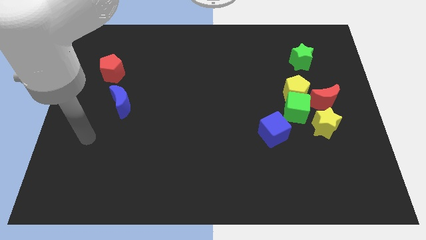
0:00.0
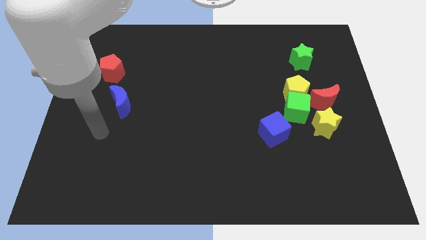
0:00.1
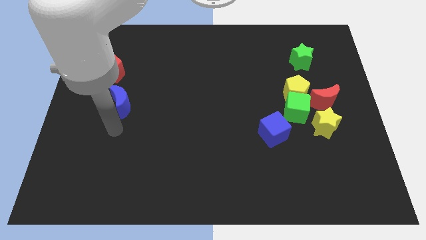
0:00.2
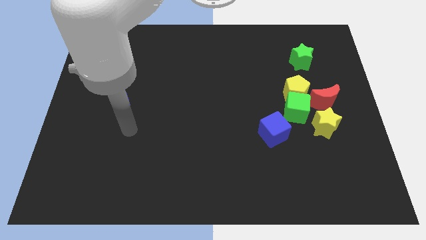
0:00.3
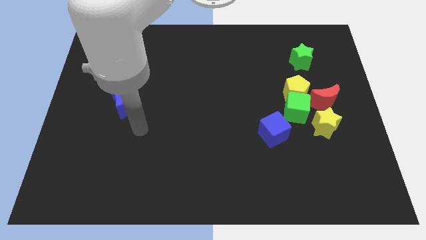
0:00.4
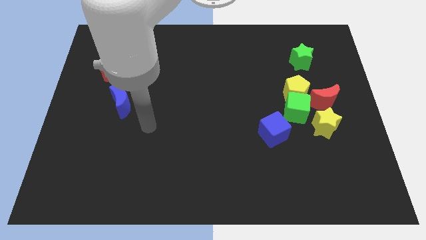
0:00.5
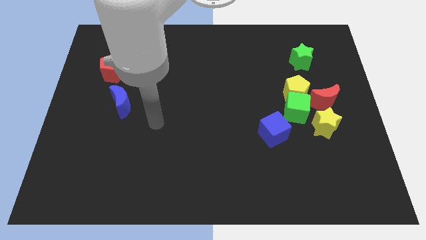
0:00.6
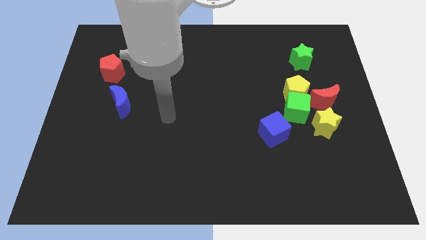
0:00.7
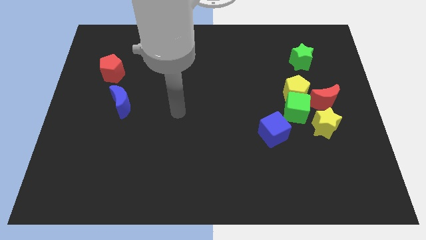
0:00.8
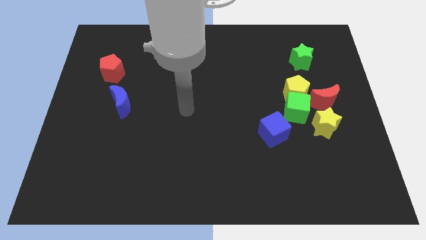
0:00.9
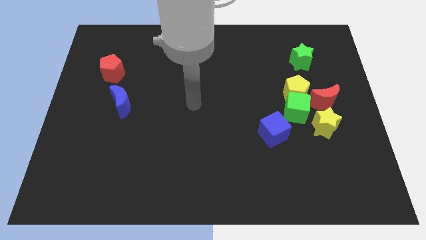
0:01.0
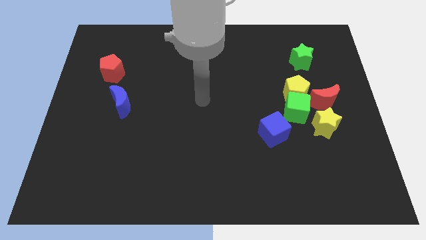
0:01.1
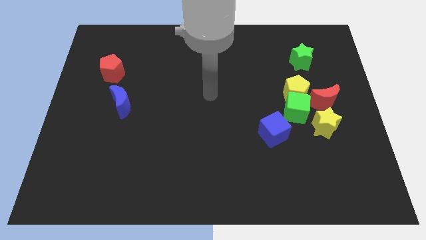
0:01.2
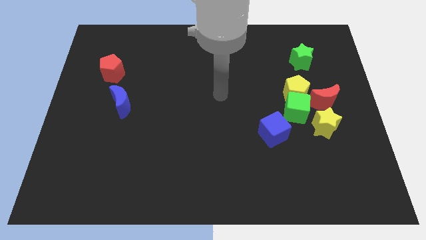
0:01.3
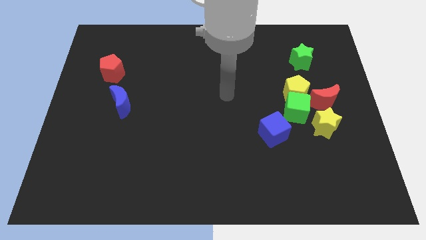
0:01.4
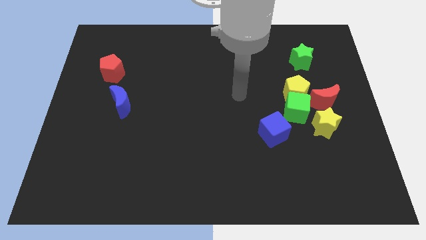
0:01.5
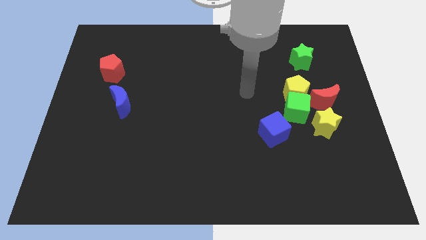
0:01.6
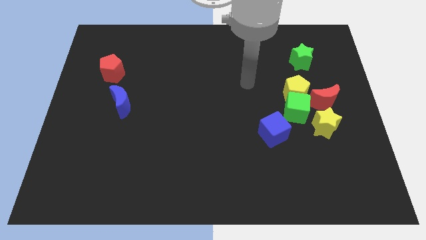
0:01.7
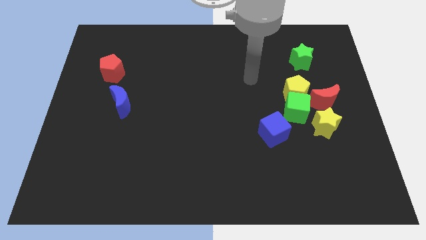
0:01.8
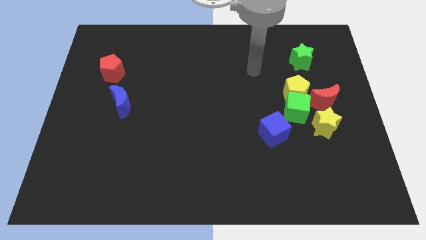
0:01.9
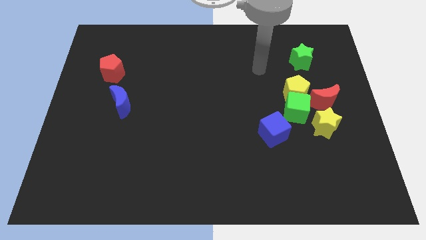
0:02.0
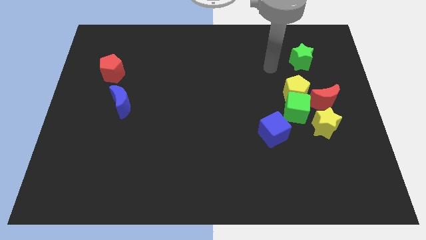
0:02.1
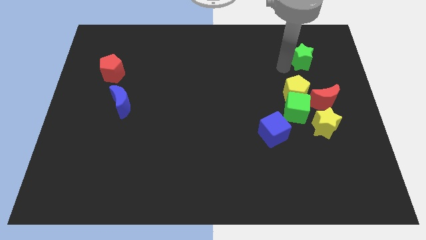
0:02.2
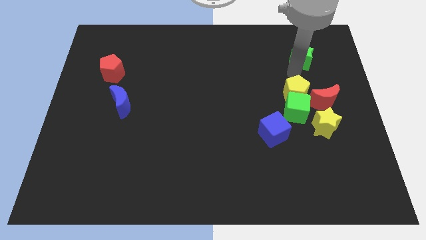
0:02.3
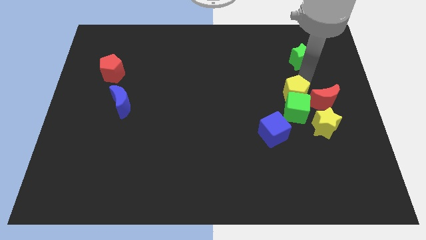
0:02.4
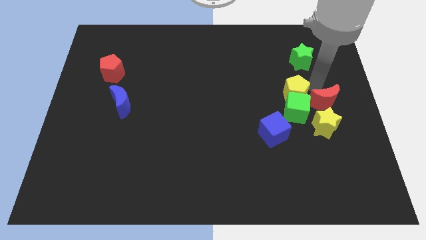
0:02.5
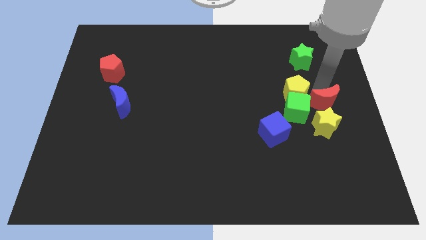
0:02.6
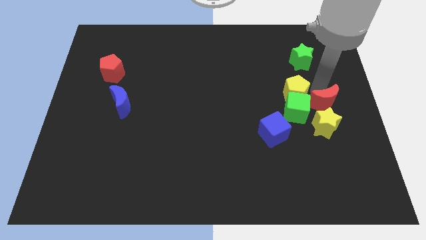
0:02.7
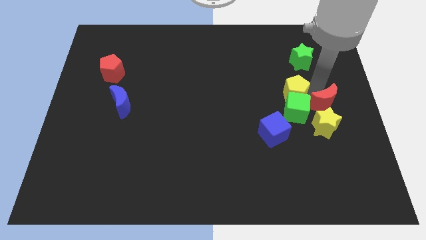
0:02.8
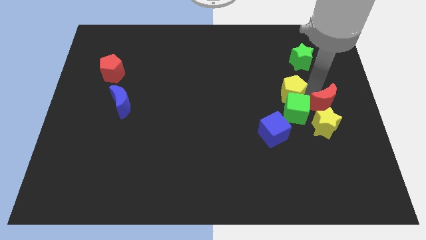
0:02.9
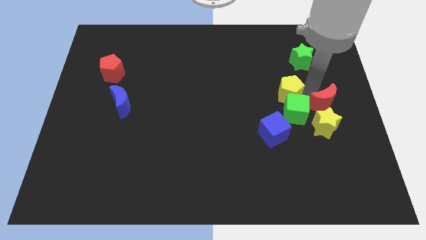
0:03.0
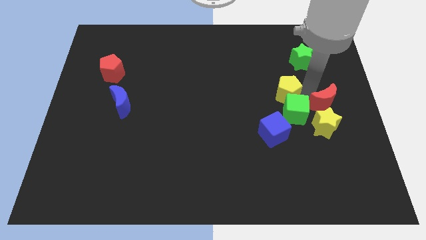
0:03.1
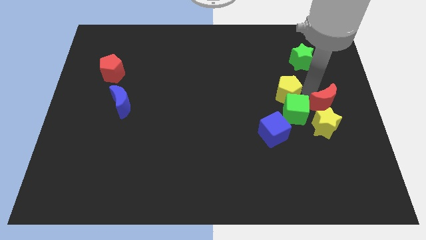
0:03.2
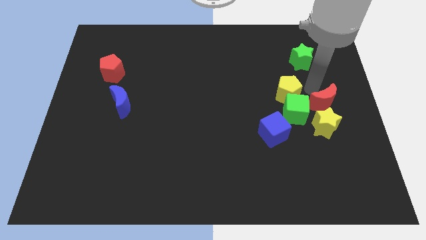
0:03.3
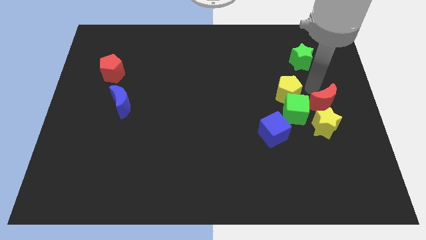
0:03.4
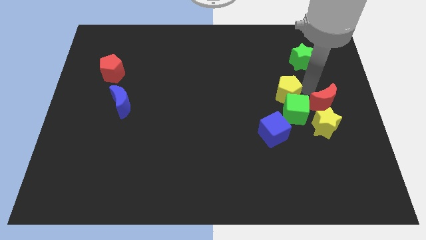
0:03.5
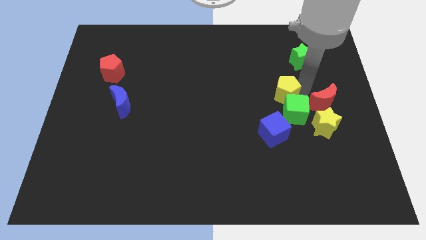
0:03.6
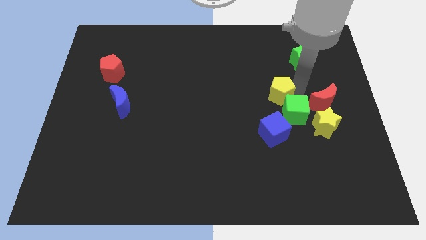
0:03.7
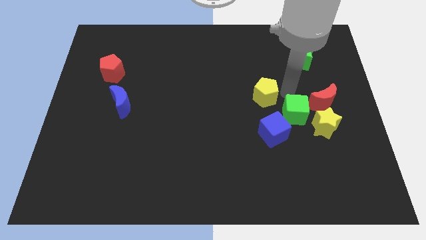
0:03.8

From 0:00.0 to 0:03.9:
slide the yellow pentagon left a little bit

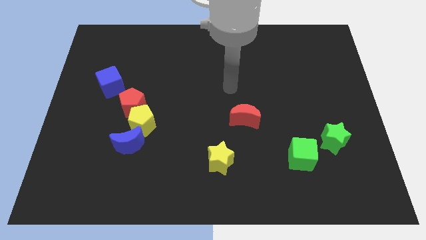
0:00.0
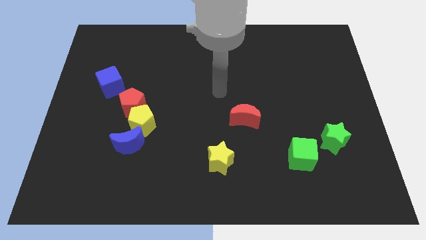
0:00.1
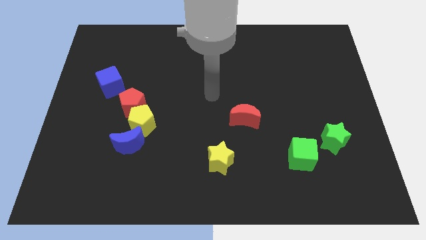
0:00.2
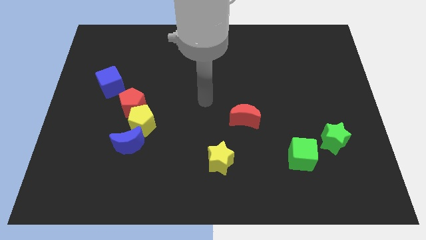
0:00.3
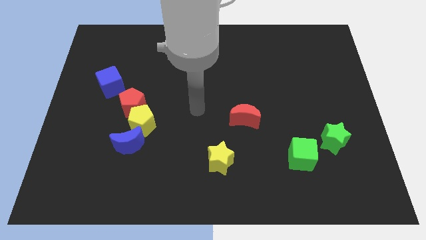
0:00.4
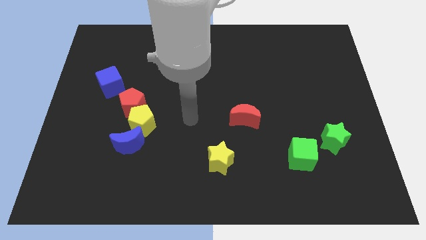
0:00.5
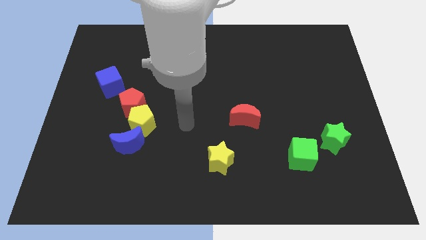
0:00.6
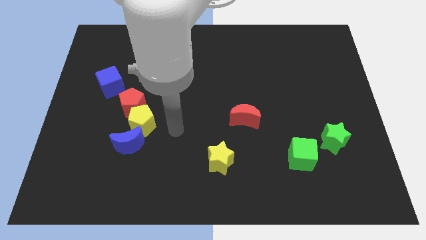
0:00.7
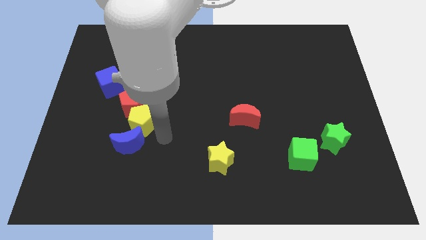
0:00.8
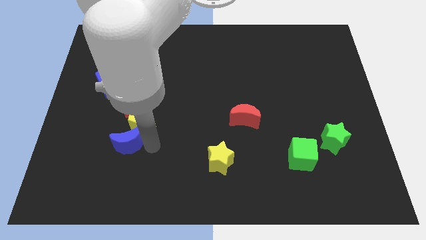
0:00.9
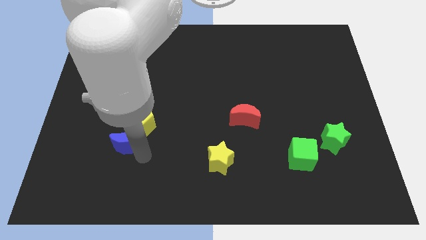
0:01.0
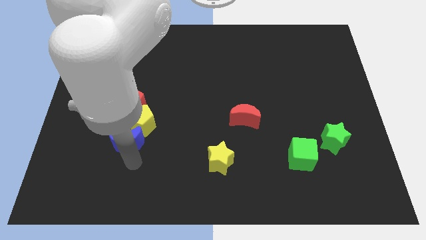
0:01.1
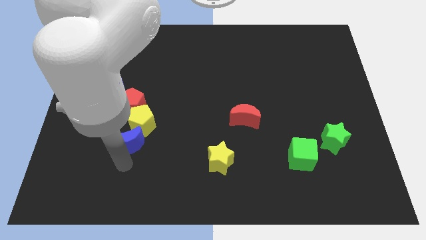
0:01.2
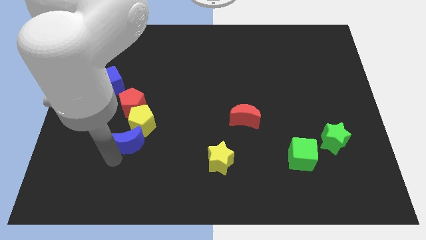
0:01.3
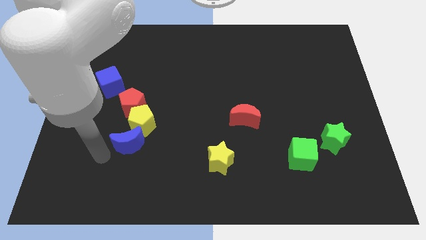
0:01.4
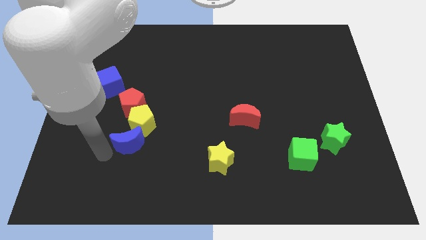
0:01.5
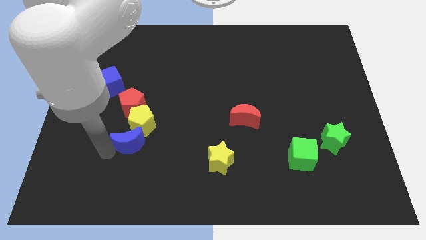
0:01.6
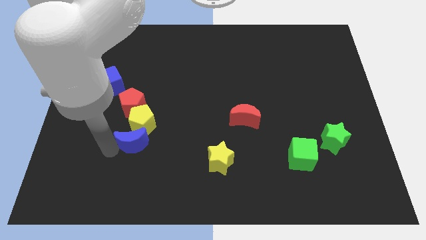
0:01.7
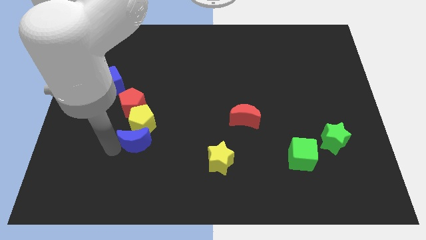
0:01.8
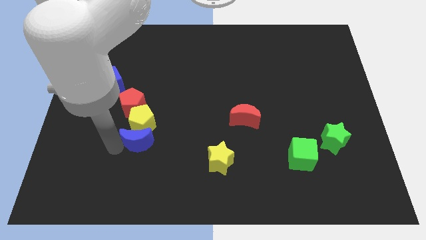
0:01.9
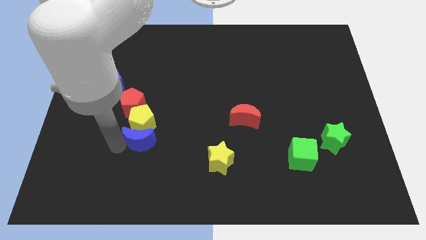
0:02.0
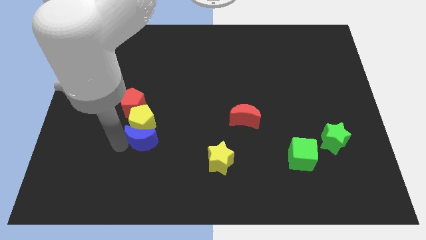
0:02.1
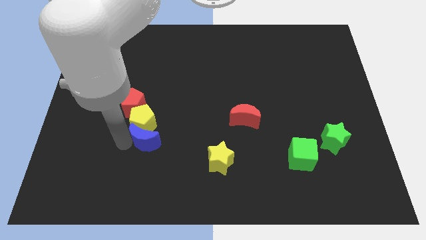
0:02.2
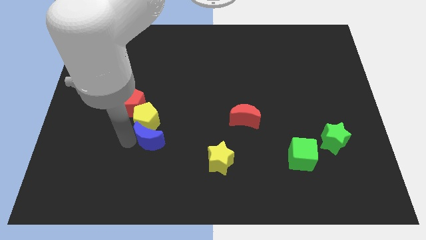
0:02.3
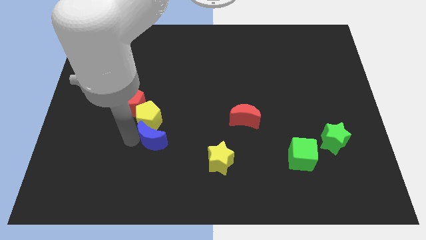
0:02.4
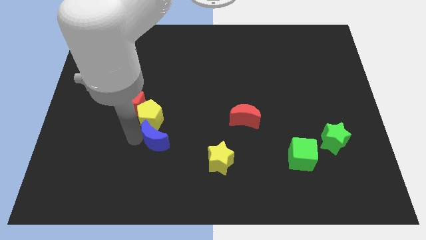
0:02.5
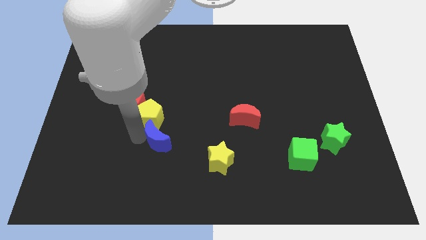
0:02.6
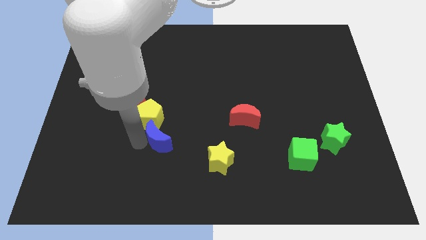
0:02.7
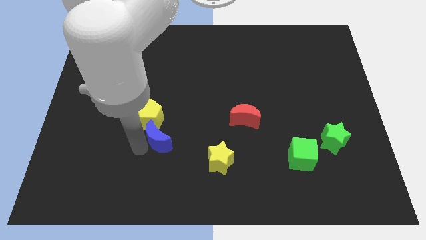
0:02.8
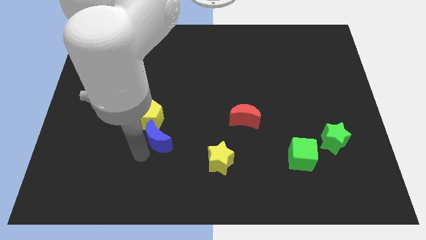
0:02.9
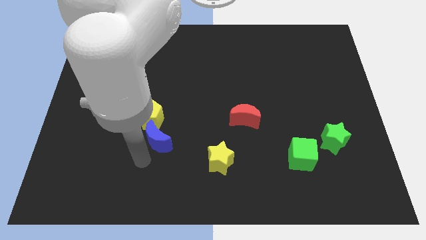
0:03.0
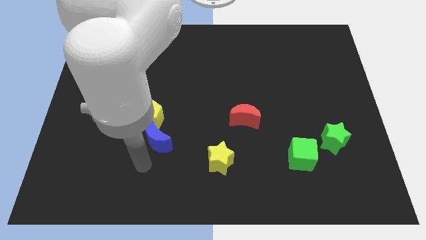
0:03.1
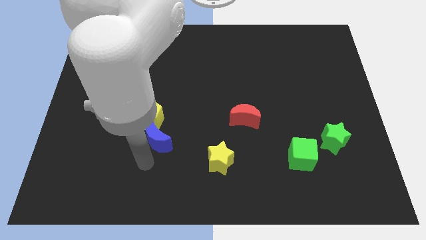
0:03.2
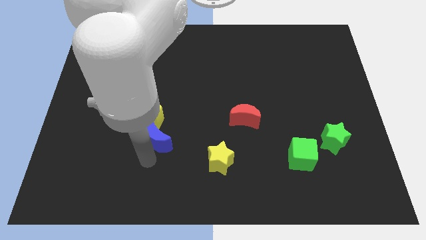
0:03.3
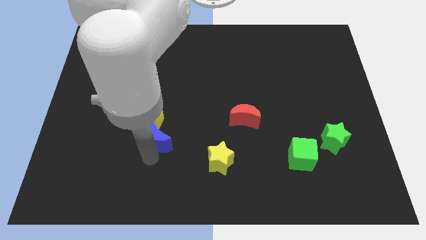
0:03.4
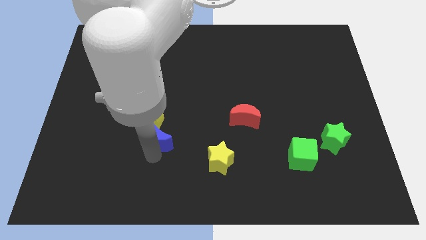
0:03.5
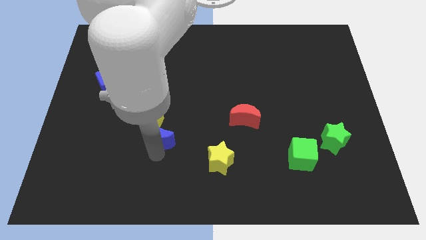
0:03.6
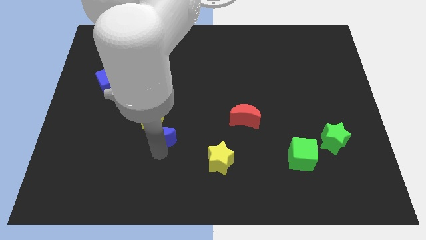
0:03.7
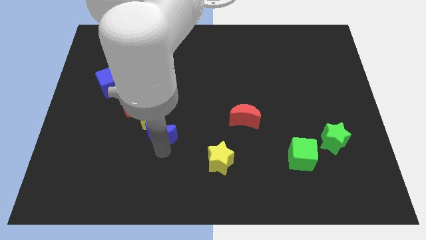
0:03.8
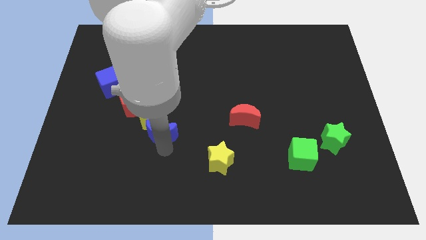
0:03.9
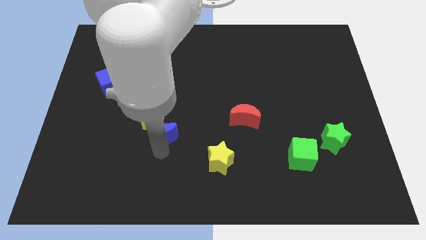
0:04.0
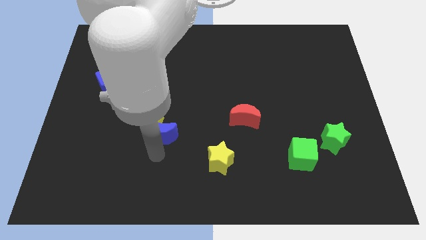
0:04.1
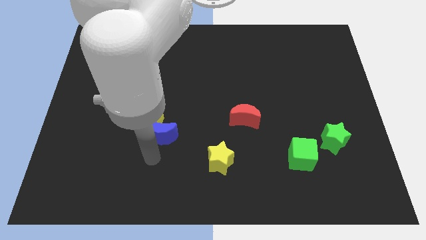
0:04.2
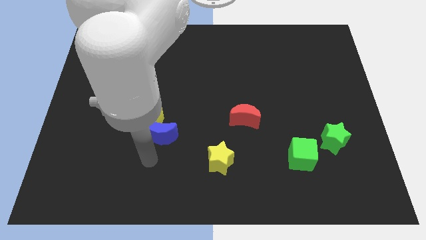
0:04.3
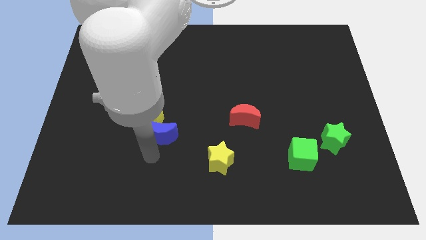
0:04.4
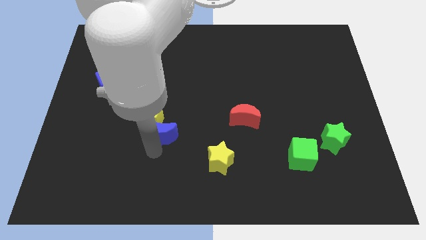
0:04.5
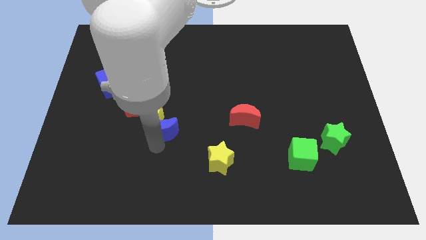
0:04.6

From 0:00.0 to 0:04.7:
move the blue moon up and to the right somewhat
